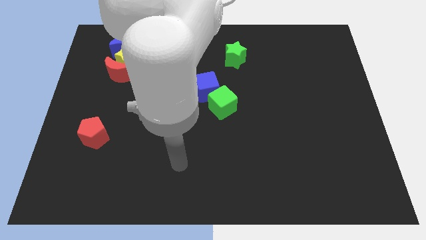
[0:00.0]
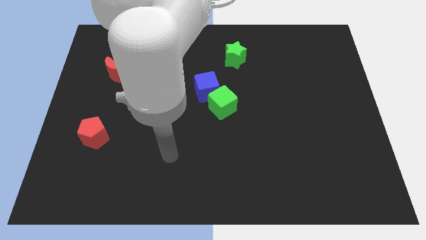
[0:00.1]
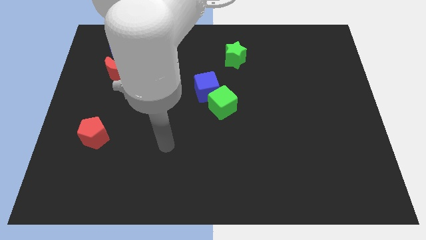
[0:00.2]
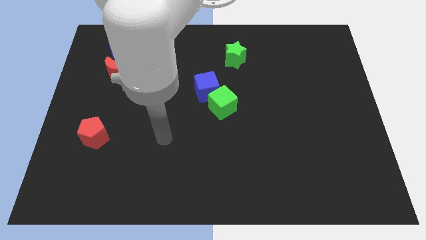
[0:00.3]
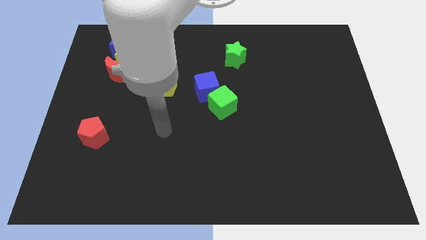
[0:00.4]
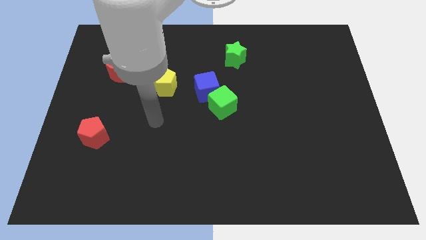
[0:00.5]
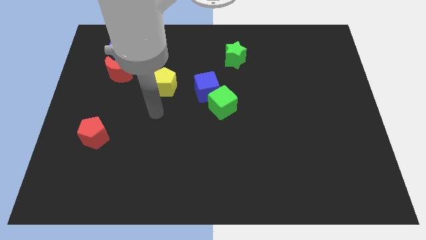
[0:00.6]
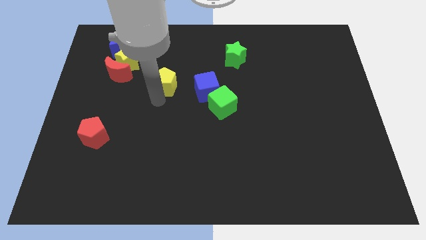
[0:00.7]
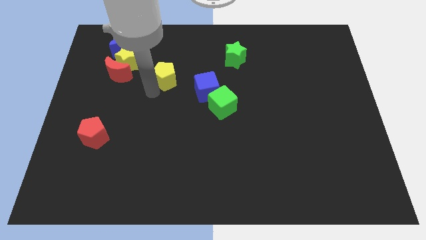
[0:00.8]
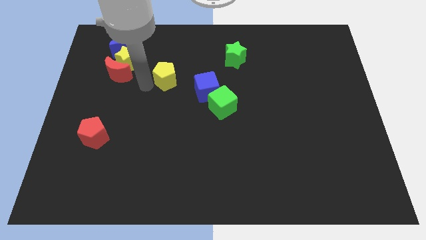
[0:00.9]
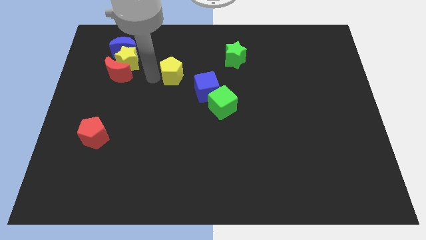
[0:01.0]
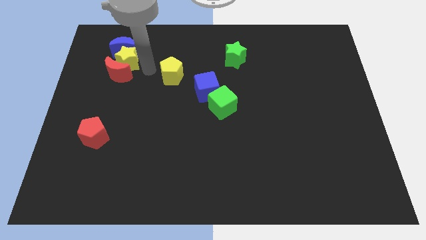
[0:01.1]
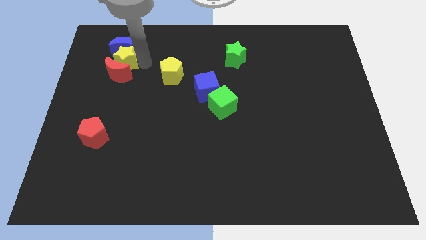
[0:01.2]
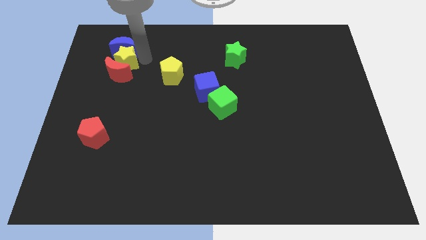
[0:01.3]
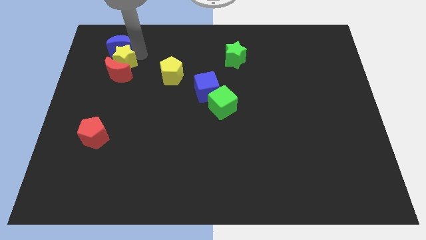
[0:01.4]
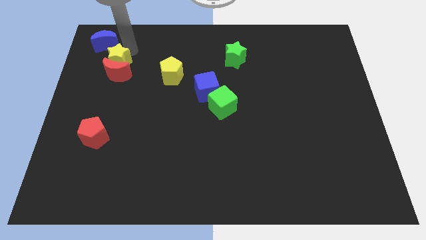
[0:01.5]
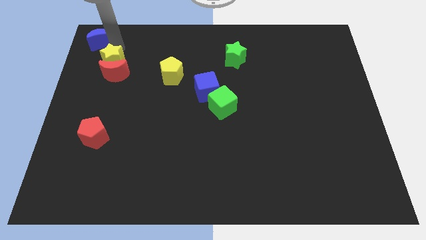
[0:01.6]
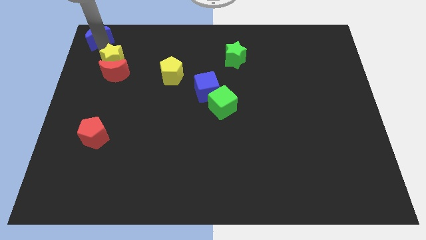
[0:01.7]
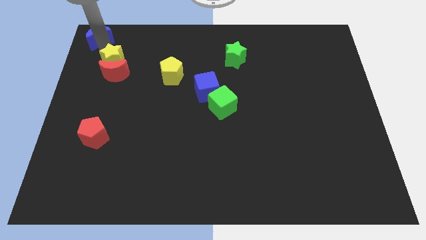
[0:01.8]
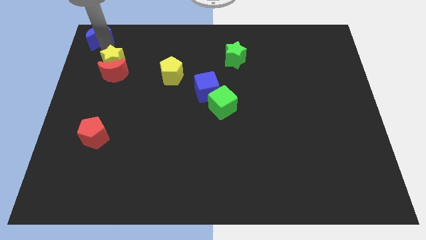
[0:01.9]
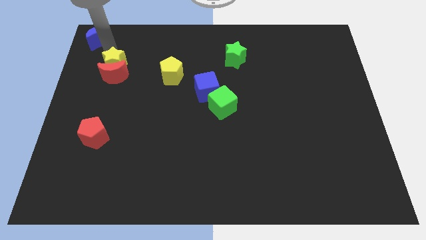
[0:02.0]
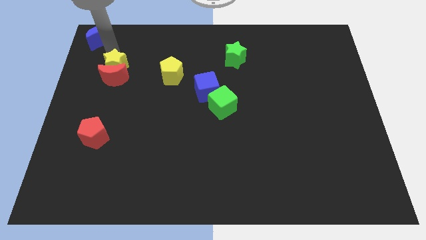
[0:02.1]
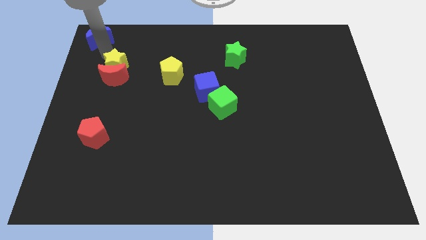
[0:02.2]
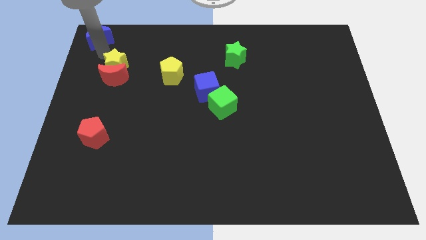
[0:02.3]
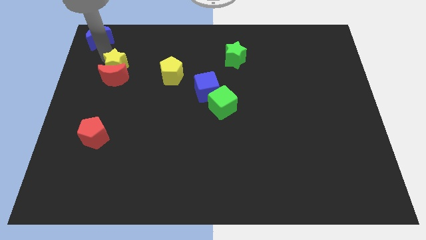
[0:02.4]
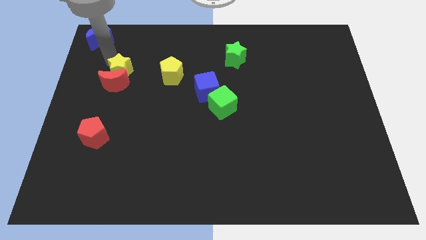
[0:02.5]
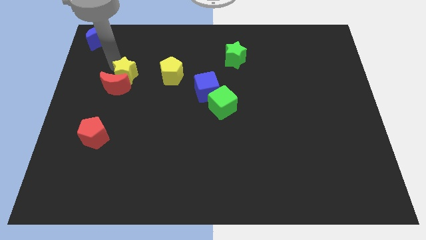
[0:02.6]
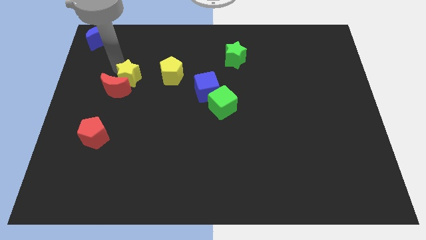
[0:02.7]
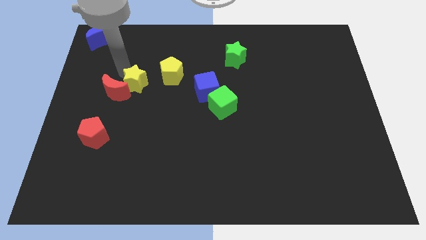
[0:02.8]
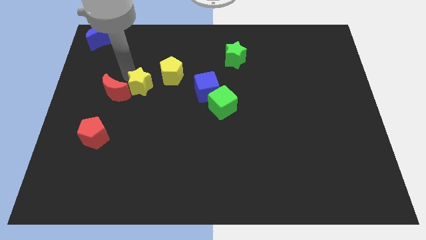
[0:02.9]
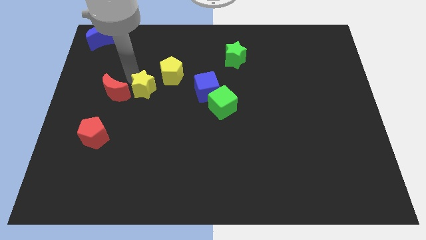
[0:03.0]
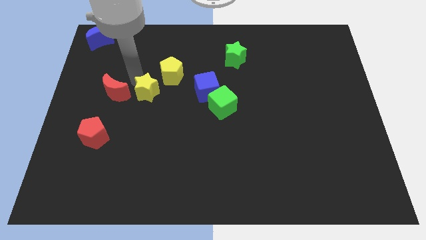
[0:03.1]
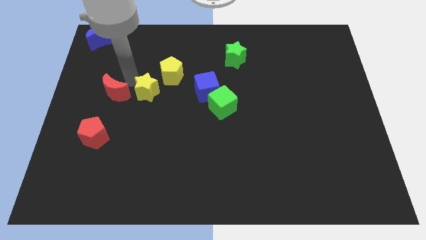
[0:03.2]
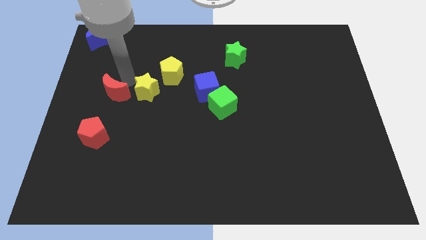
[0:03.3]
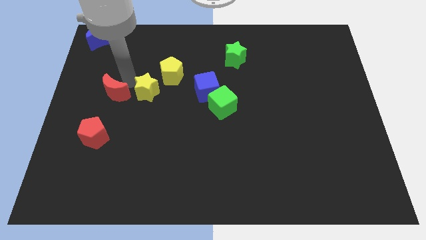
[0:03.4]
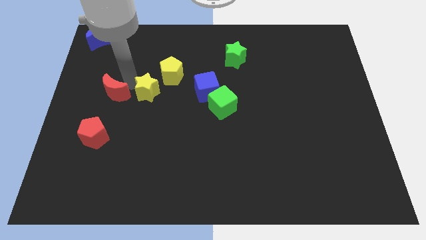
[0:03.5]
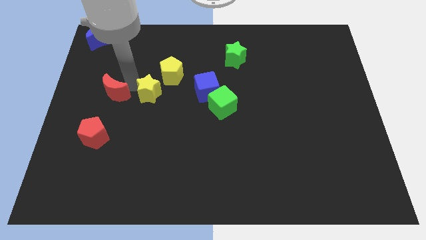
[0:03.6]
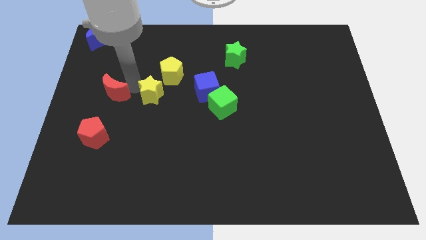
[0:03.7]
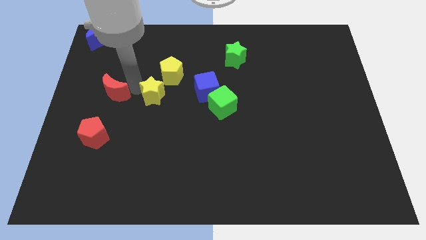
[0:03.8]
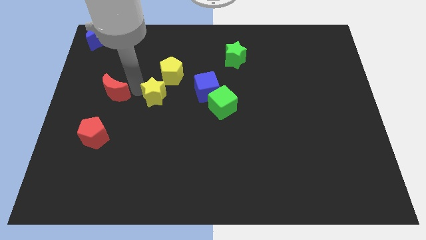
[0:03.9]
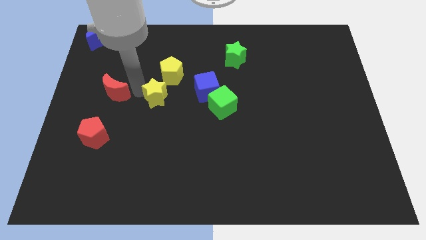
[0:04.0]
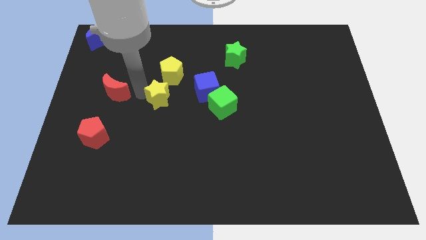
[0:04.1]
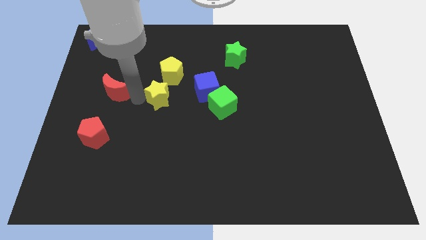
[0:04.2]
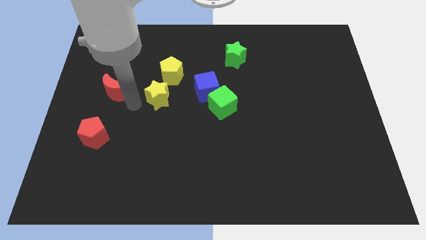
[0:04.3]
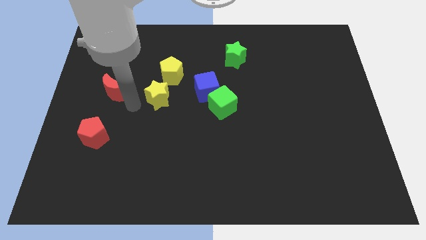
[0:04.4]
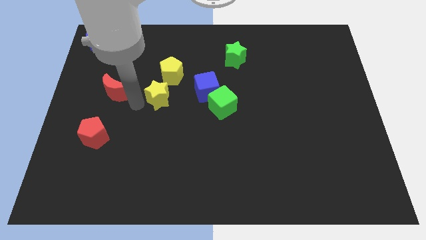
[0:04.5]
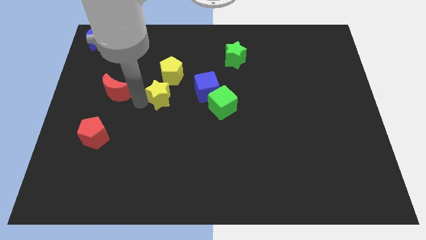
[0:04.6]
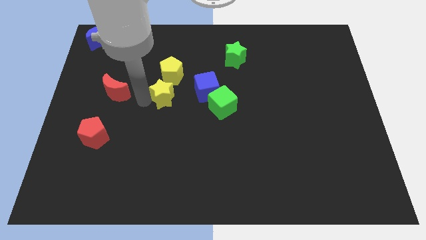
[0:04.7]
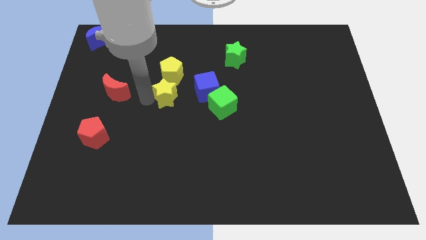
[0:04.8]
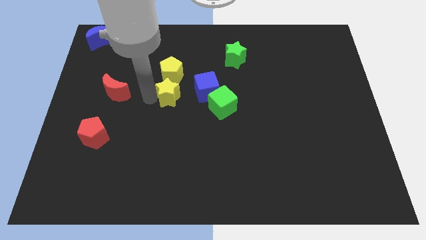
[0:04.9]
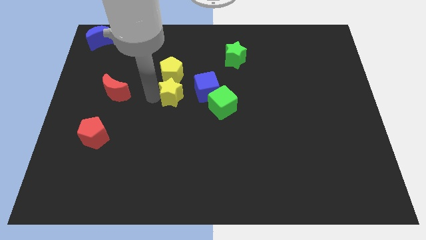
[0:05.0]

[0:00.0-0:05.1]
move the yellow star to the bottom right side of the yellow pentagon

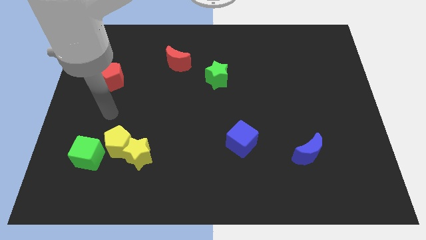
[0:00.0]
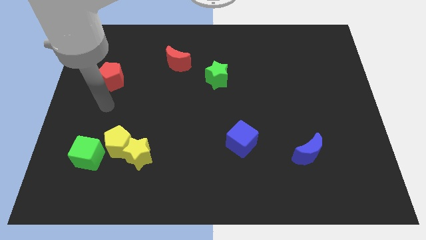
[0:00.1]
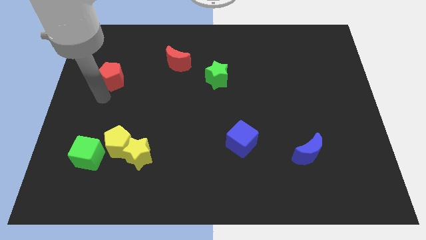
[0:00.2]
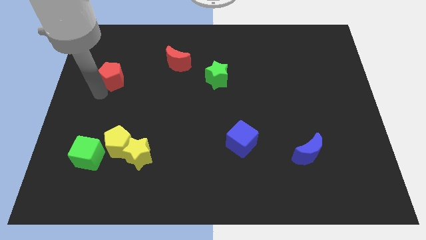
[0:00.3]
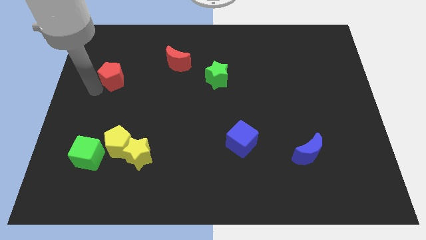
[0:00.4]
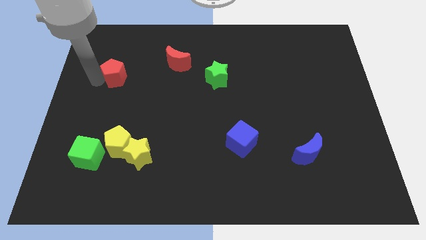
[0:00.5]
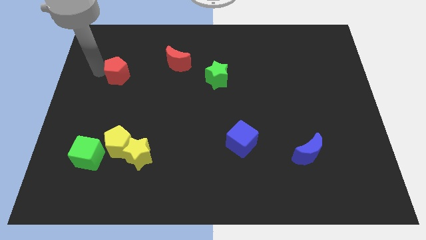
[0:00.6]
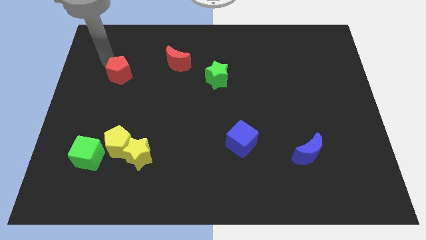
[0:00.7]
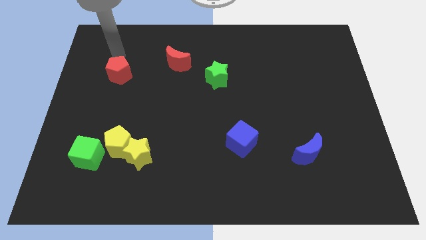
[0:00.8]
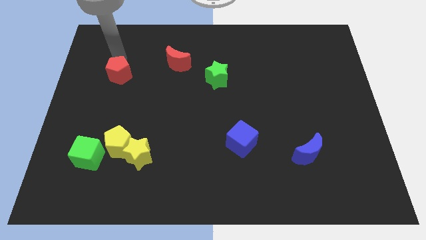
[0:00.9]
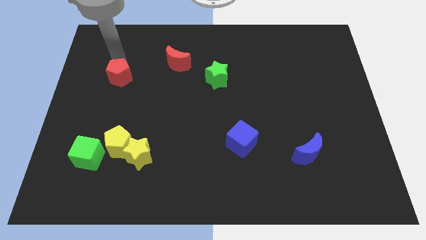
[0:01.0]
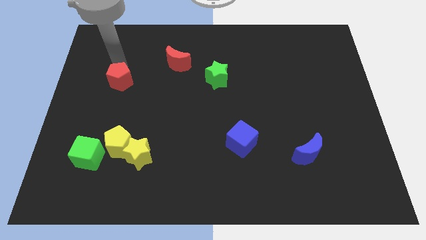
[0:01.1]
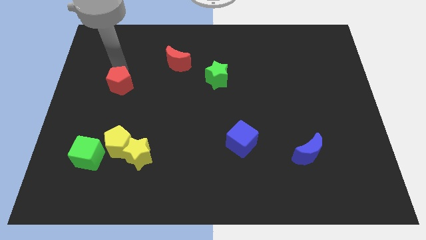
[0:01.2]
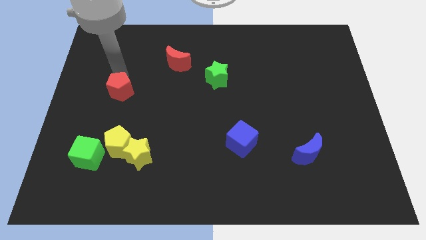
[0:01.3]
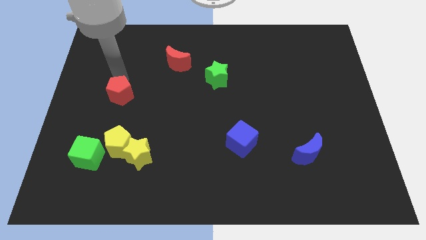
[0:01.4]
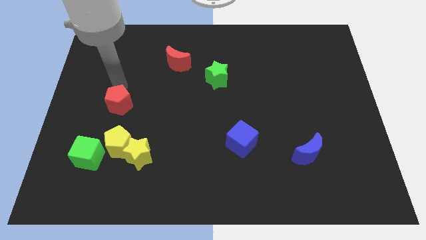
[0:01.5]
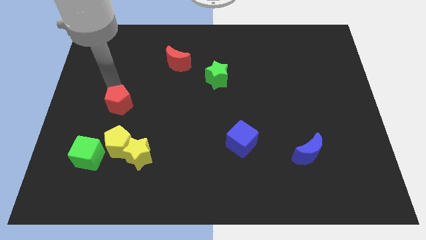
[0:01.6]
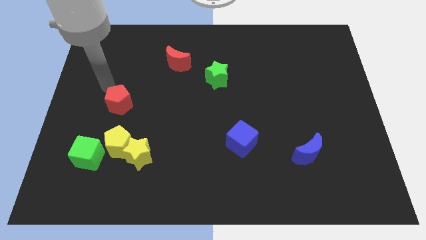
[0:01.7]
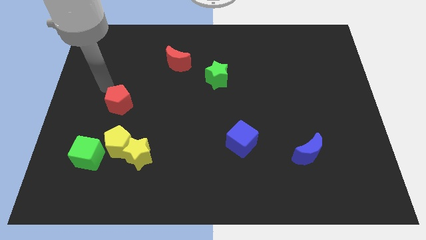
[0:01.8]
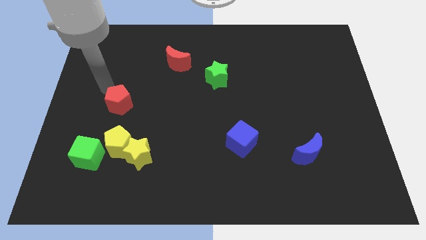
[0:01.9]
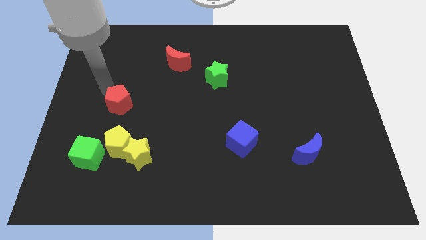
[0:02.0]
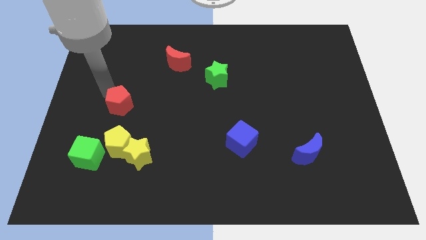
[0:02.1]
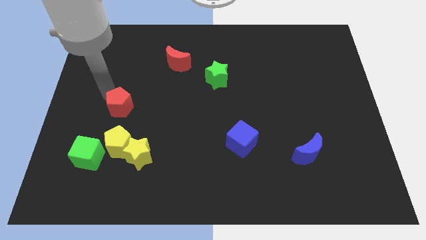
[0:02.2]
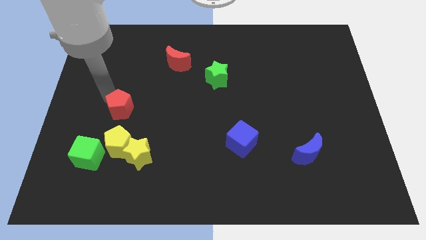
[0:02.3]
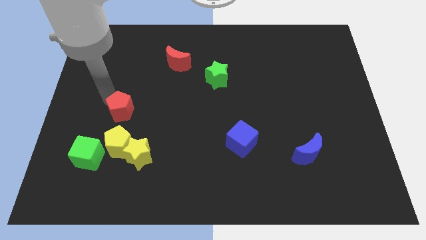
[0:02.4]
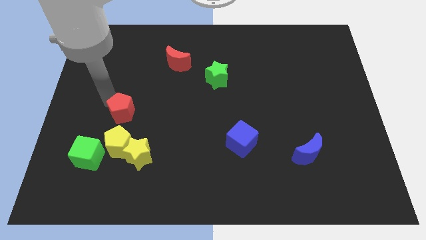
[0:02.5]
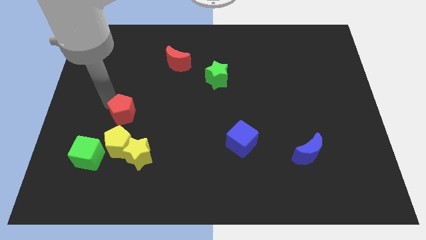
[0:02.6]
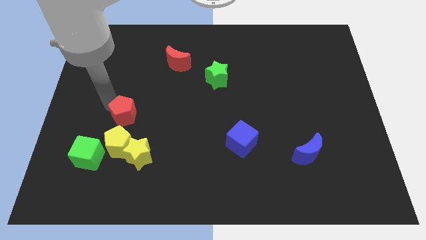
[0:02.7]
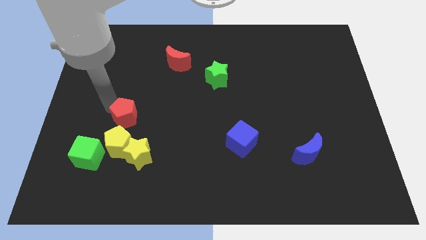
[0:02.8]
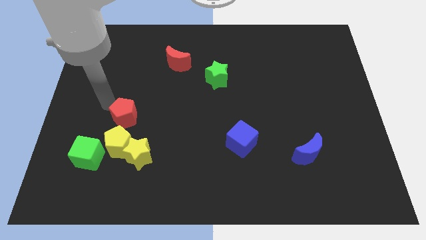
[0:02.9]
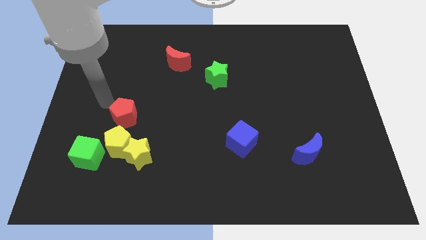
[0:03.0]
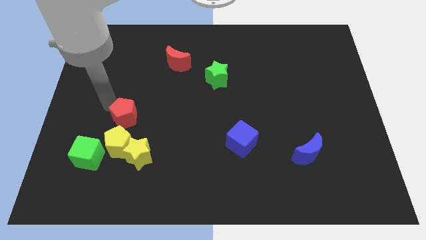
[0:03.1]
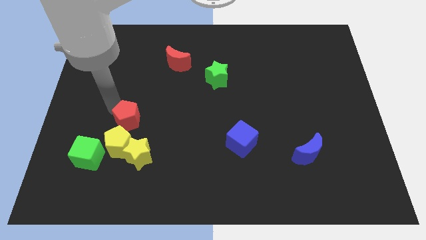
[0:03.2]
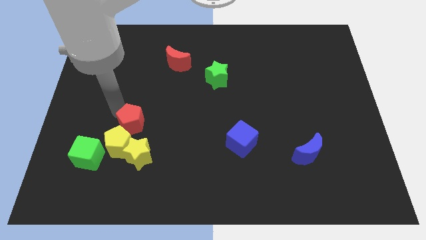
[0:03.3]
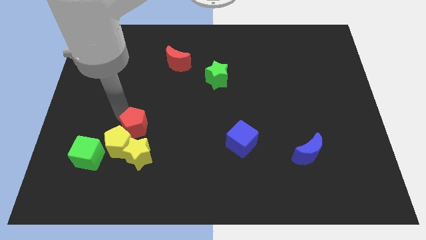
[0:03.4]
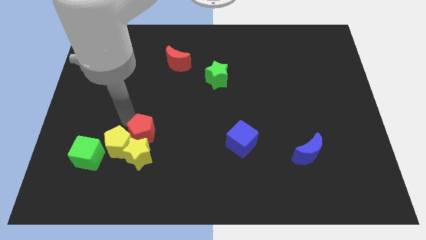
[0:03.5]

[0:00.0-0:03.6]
slide the red pentagon to the right side of the yellow pentagon

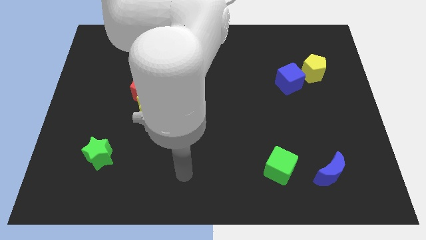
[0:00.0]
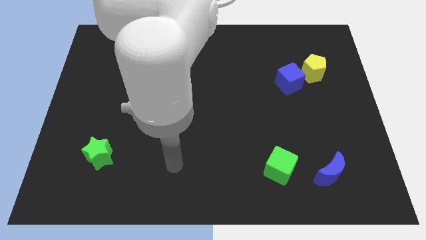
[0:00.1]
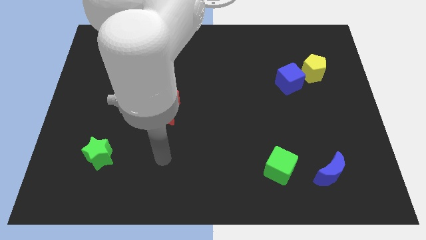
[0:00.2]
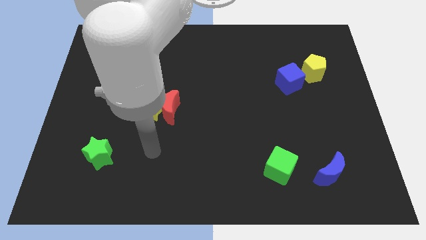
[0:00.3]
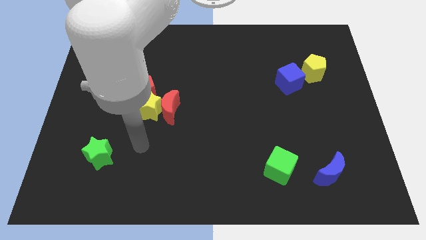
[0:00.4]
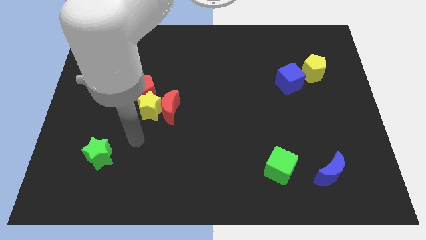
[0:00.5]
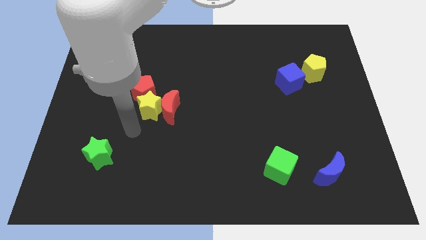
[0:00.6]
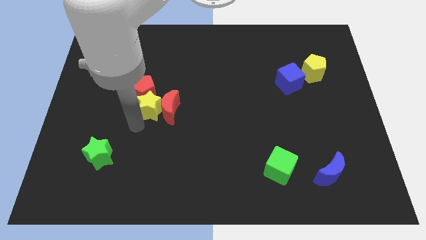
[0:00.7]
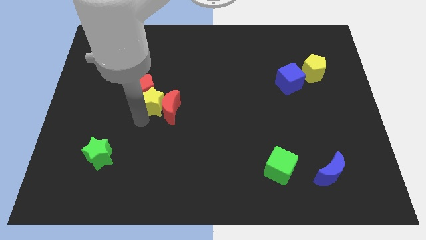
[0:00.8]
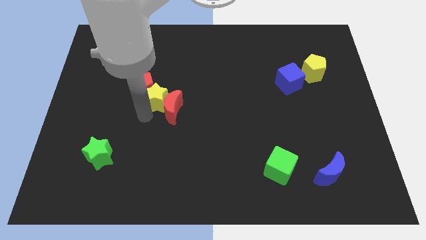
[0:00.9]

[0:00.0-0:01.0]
put the yellow star above the red moon
